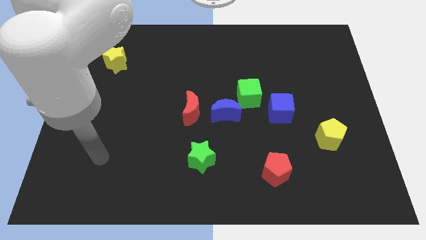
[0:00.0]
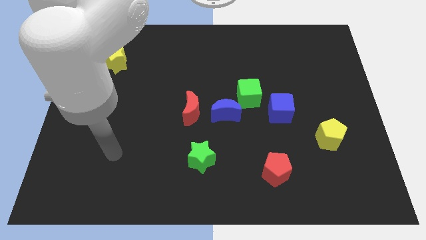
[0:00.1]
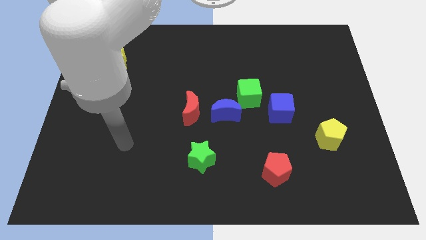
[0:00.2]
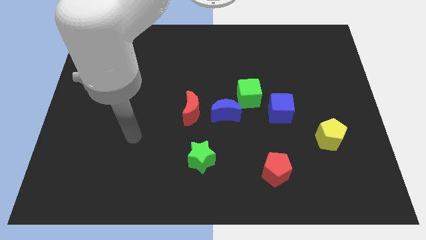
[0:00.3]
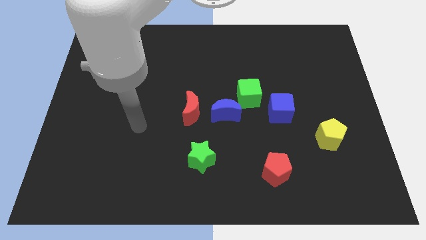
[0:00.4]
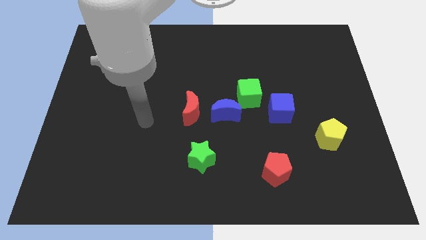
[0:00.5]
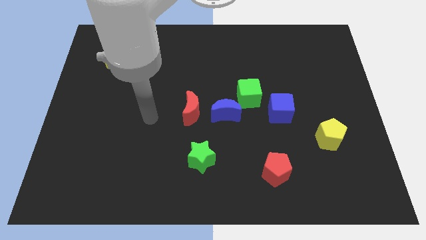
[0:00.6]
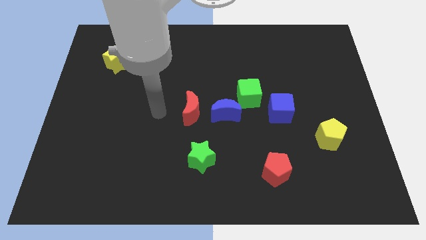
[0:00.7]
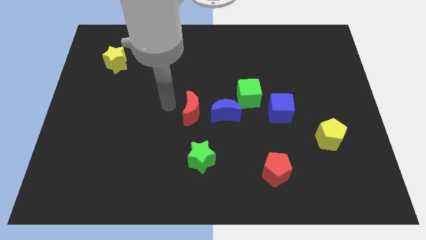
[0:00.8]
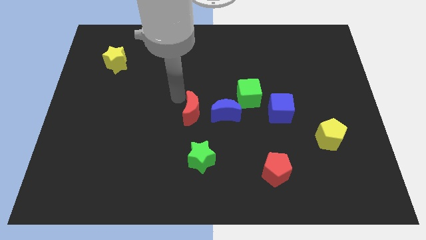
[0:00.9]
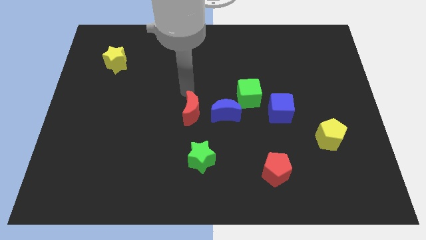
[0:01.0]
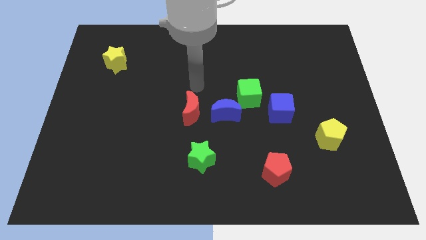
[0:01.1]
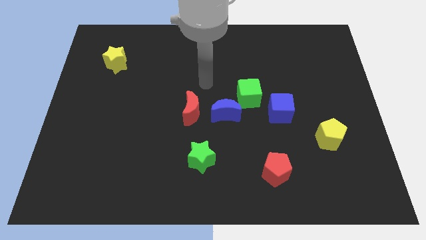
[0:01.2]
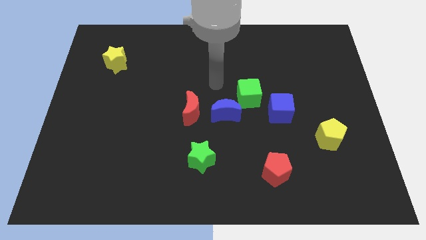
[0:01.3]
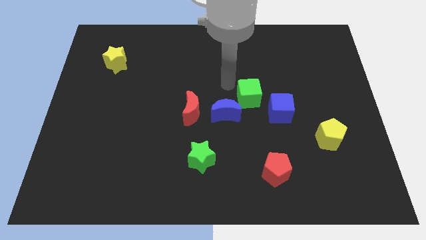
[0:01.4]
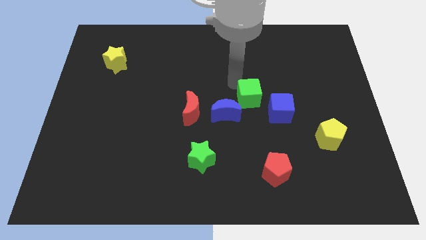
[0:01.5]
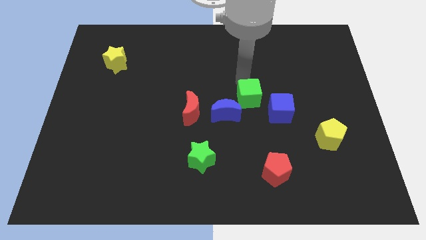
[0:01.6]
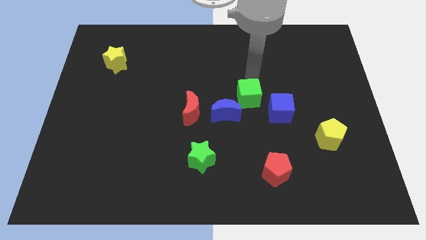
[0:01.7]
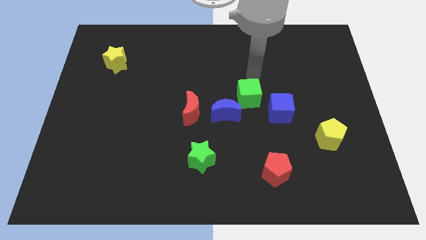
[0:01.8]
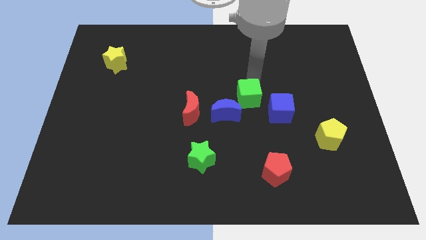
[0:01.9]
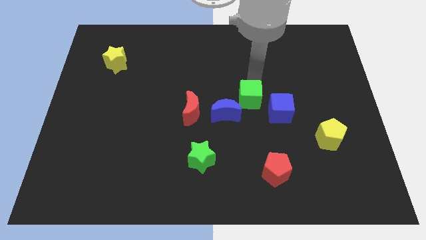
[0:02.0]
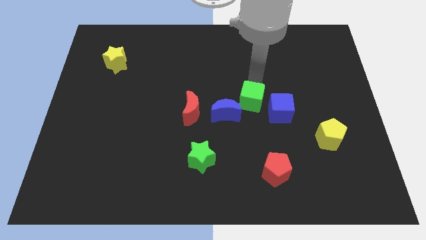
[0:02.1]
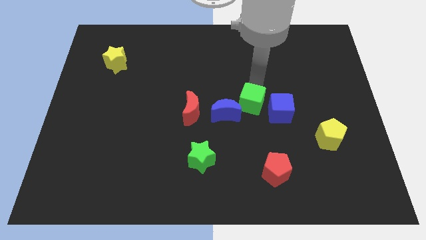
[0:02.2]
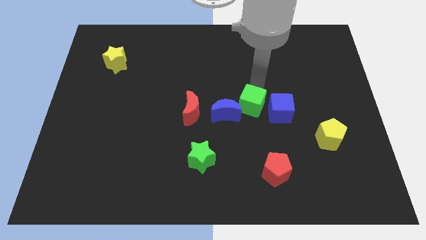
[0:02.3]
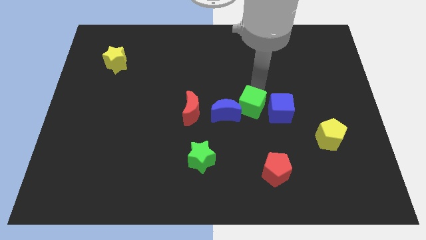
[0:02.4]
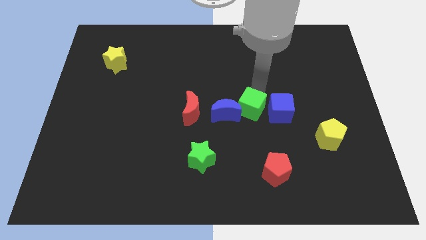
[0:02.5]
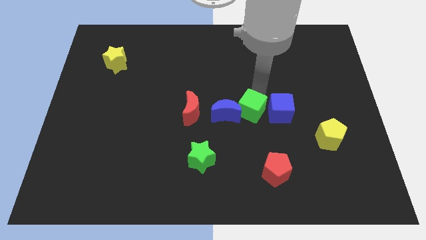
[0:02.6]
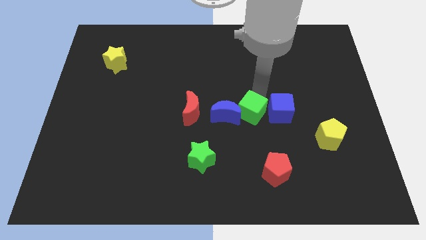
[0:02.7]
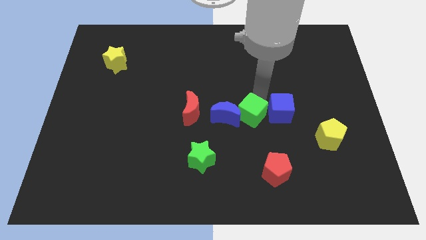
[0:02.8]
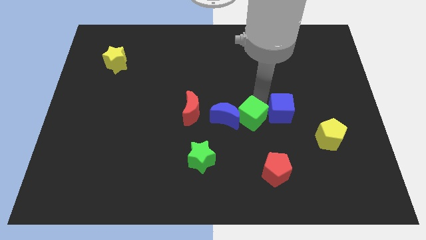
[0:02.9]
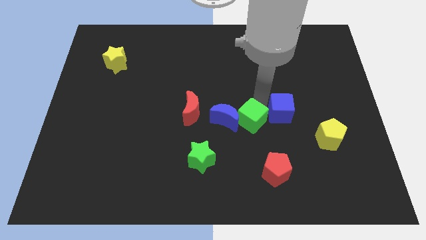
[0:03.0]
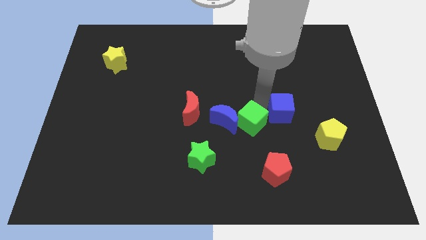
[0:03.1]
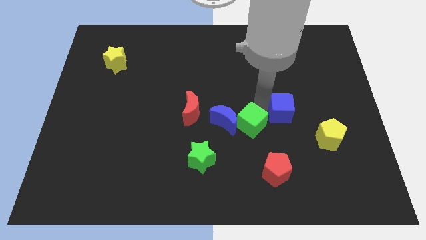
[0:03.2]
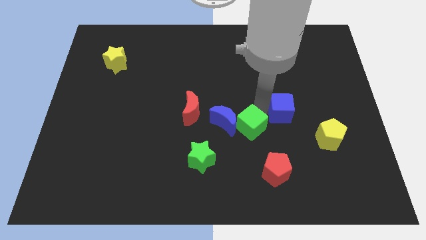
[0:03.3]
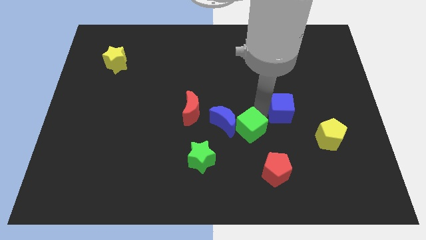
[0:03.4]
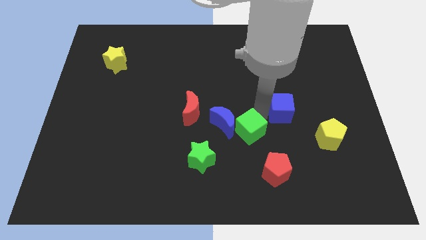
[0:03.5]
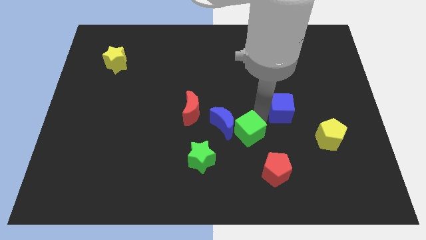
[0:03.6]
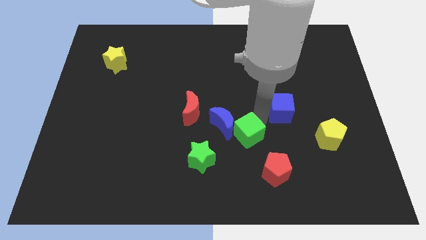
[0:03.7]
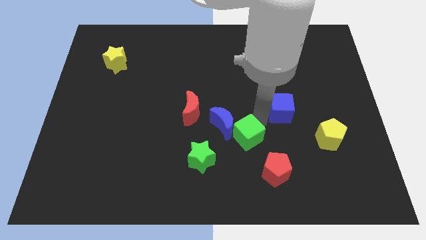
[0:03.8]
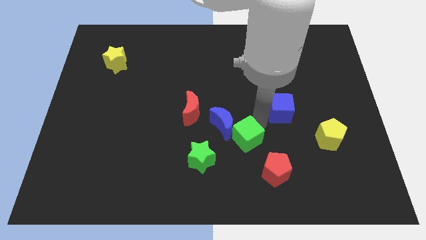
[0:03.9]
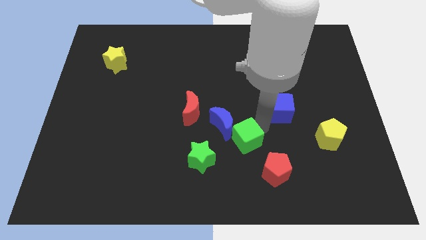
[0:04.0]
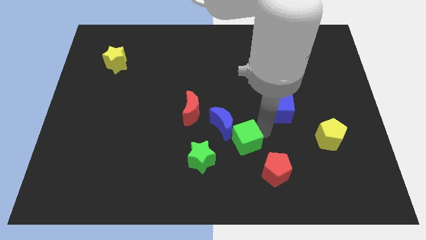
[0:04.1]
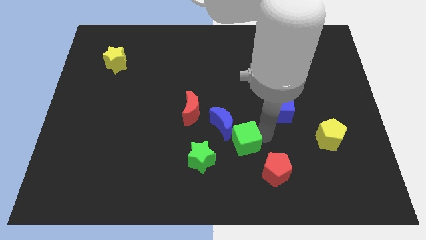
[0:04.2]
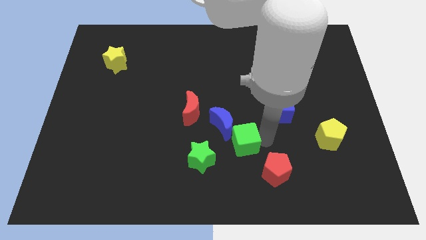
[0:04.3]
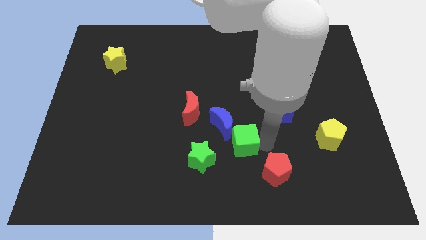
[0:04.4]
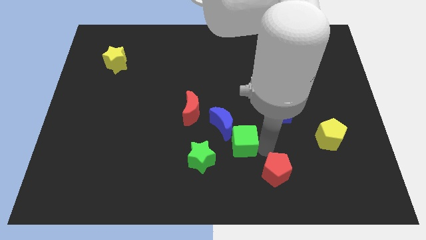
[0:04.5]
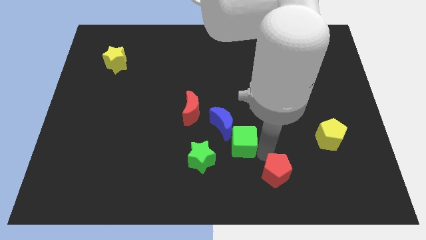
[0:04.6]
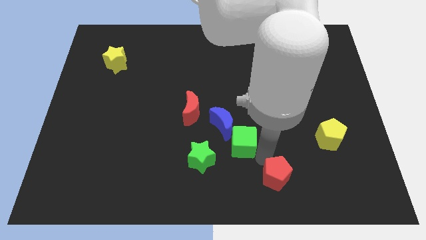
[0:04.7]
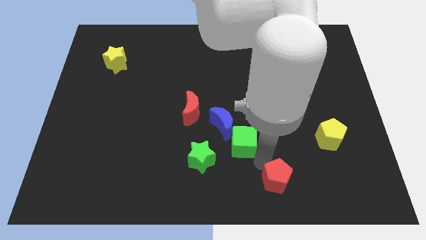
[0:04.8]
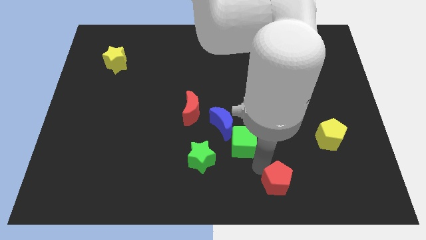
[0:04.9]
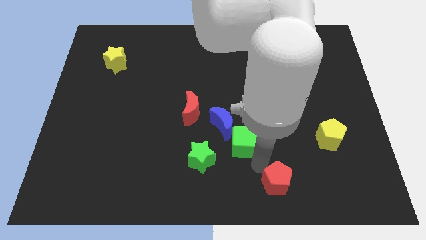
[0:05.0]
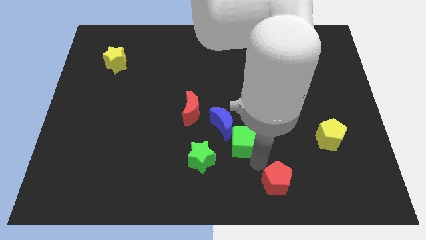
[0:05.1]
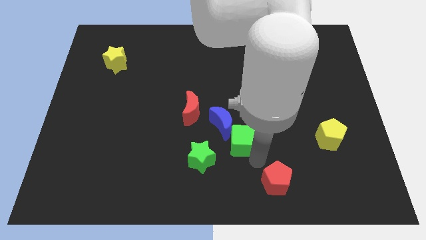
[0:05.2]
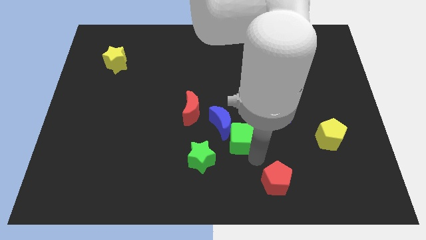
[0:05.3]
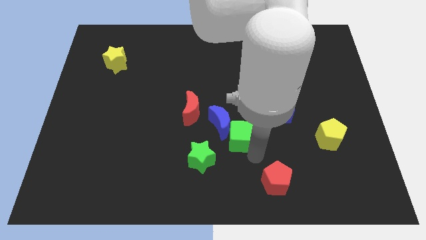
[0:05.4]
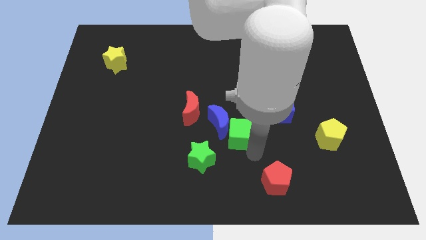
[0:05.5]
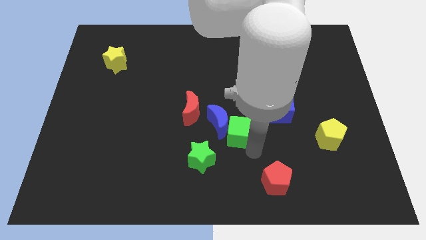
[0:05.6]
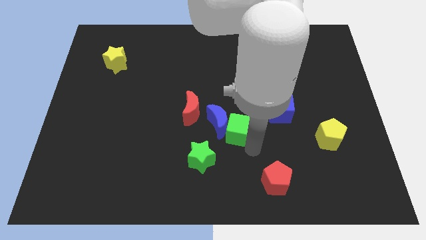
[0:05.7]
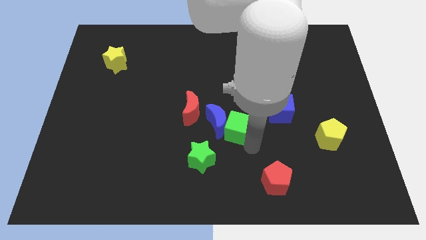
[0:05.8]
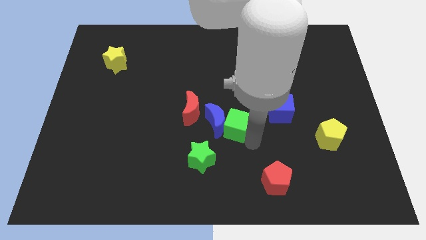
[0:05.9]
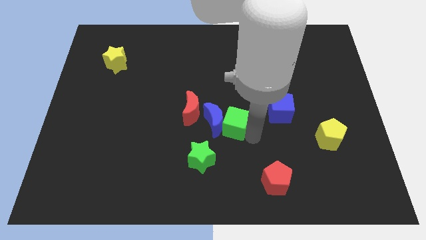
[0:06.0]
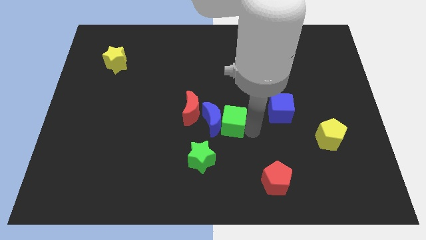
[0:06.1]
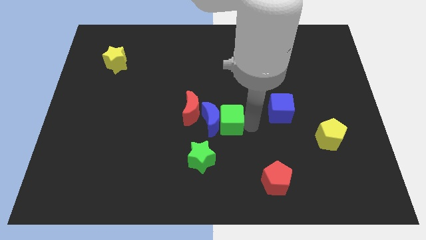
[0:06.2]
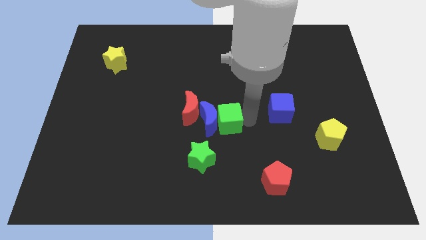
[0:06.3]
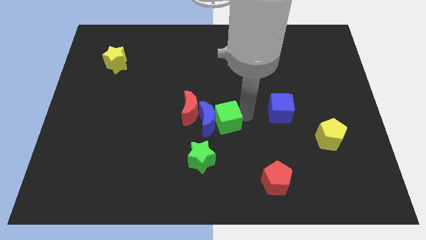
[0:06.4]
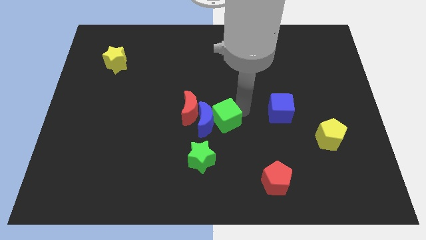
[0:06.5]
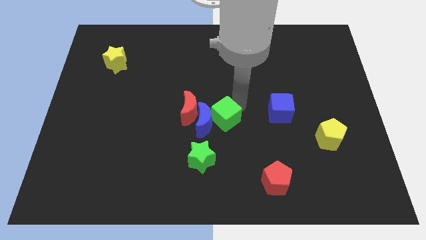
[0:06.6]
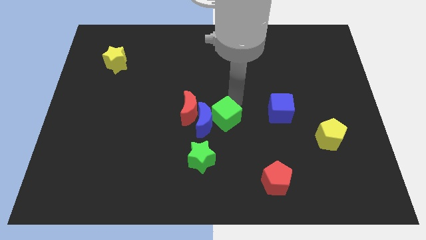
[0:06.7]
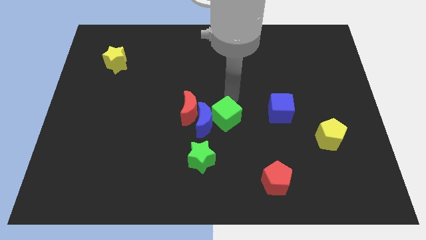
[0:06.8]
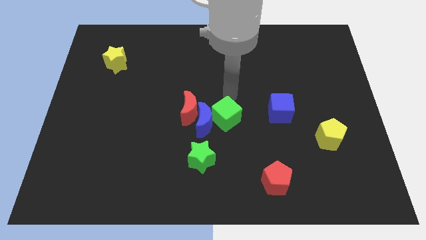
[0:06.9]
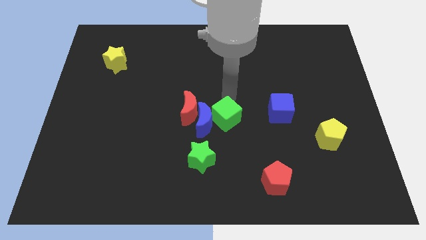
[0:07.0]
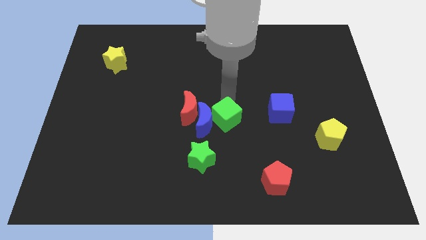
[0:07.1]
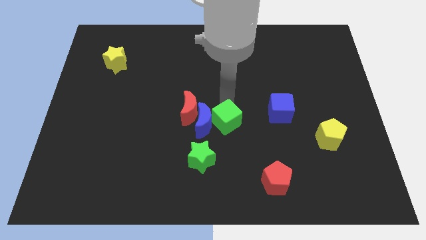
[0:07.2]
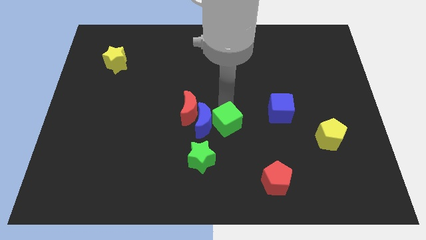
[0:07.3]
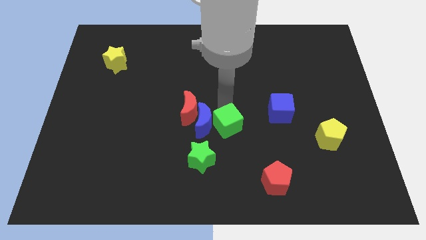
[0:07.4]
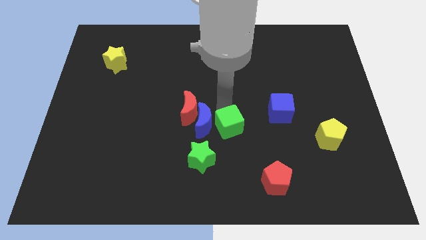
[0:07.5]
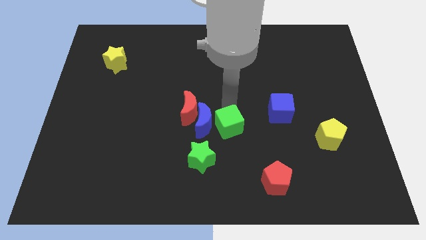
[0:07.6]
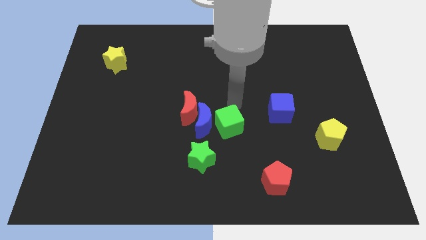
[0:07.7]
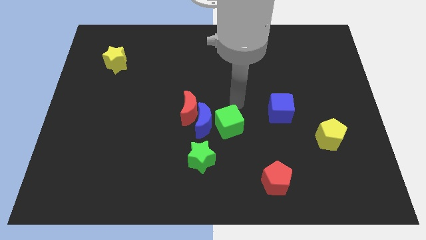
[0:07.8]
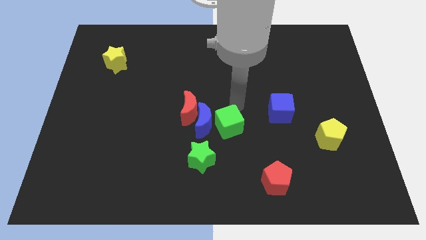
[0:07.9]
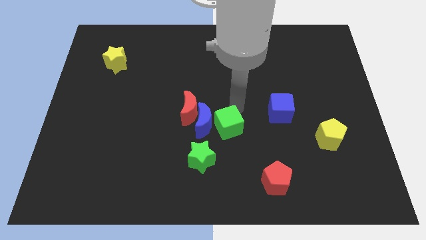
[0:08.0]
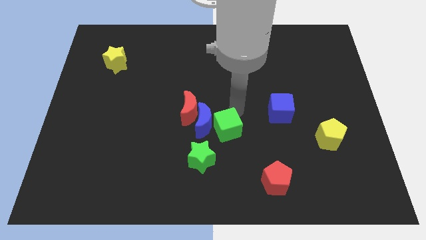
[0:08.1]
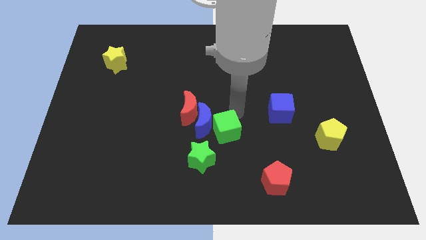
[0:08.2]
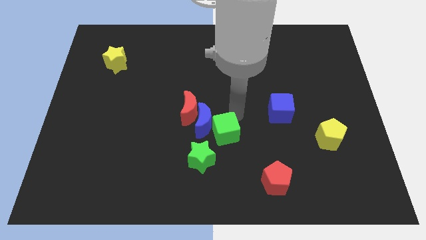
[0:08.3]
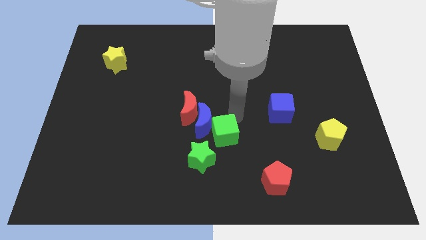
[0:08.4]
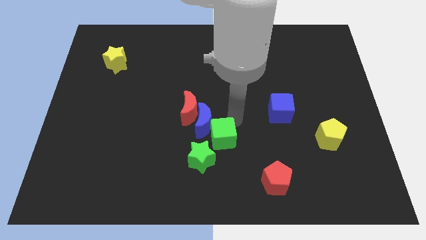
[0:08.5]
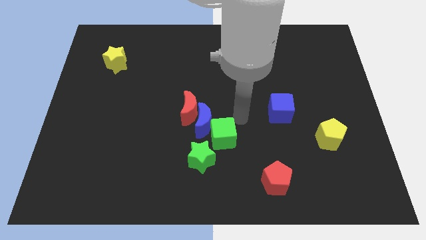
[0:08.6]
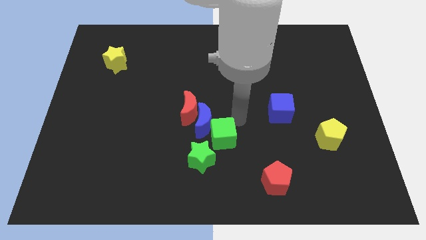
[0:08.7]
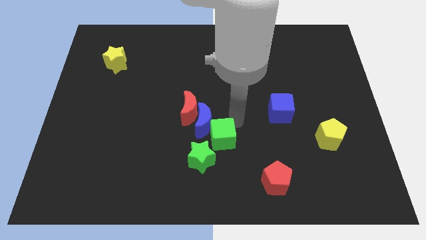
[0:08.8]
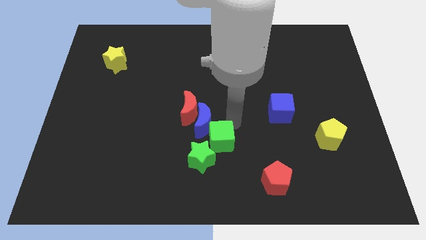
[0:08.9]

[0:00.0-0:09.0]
move the green cube to the green star
